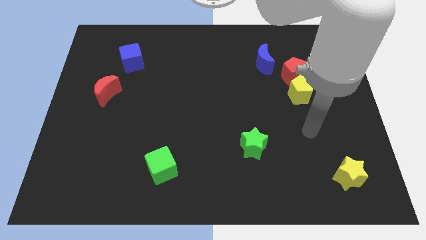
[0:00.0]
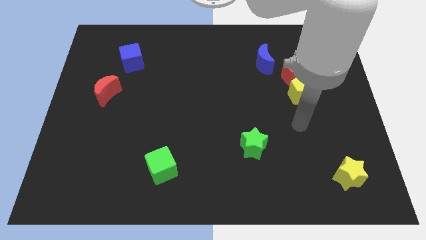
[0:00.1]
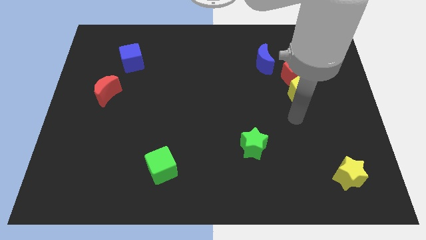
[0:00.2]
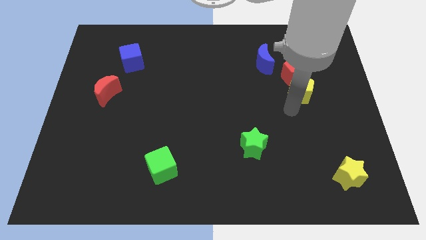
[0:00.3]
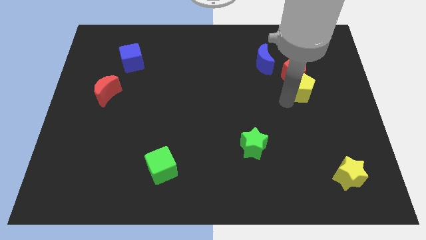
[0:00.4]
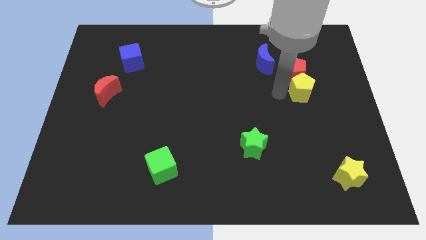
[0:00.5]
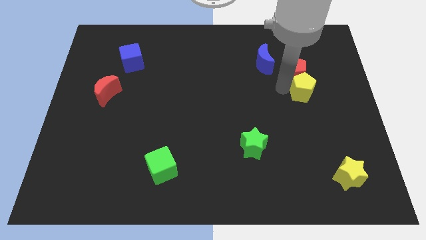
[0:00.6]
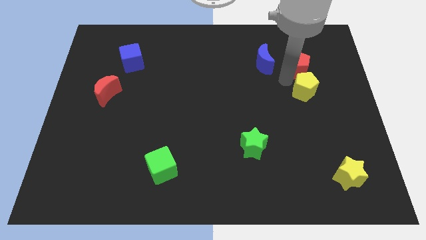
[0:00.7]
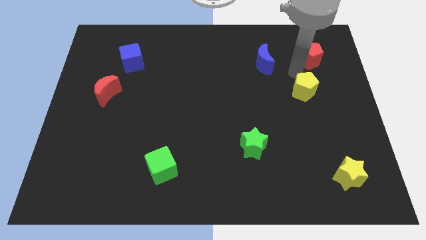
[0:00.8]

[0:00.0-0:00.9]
move the yellow pentagon away from the red pentagon

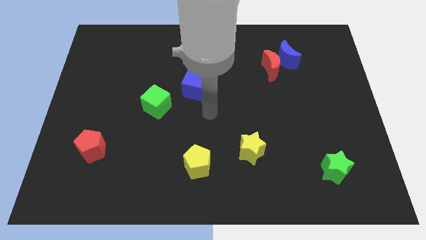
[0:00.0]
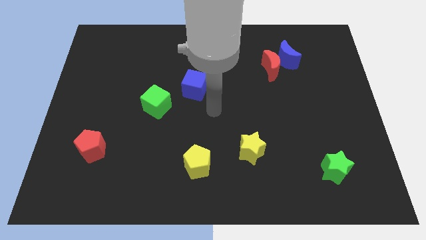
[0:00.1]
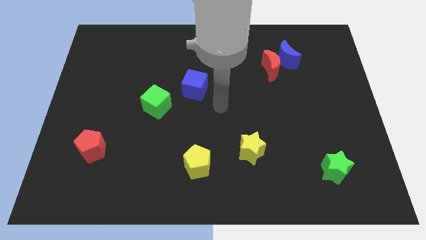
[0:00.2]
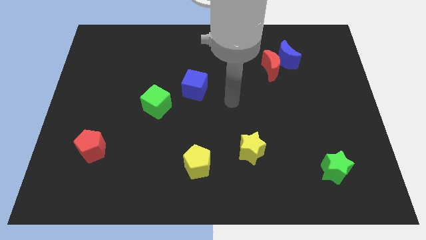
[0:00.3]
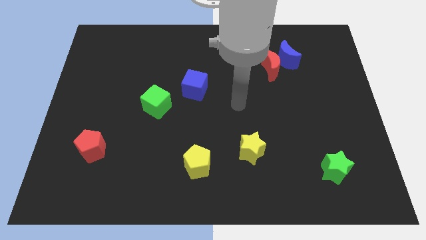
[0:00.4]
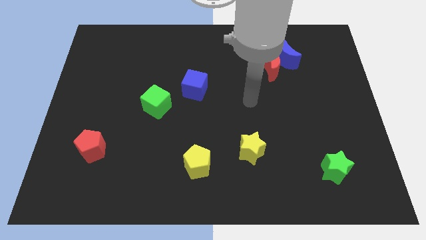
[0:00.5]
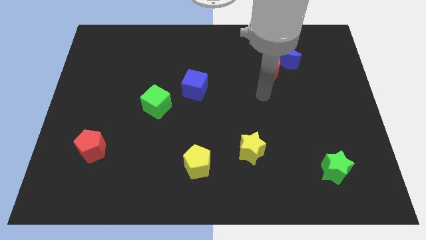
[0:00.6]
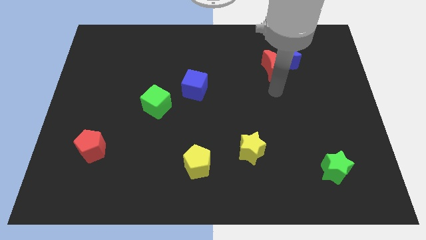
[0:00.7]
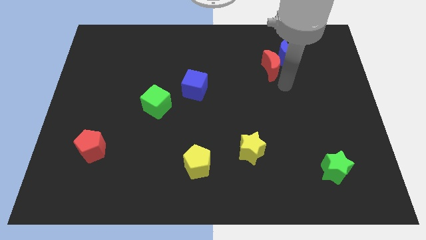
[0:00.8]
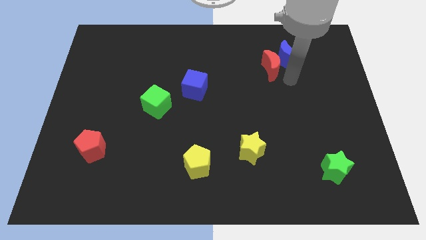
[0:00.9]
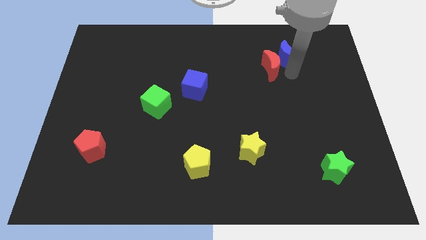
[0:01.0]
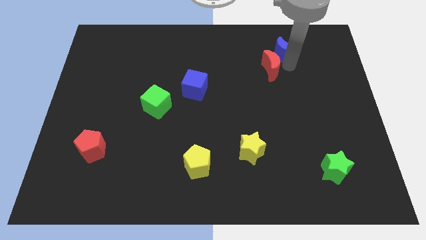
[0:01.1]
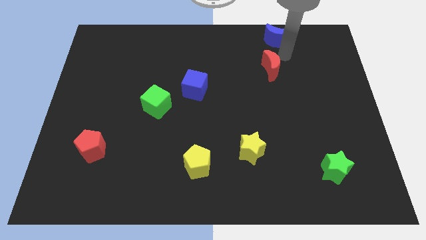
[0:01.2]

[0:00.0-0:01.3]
pull the red moon apart from the blue moon

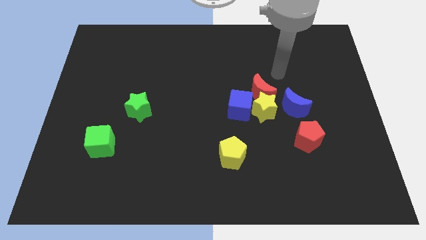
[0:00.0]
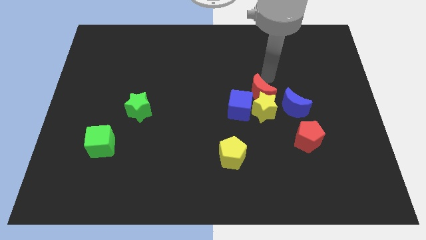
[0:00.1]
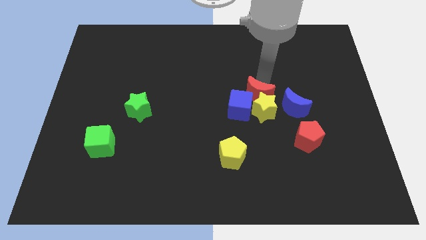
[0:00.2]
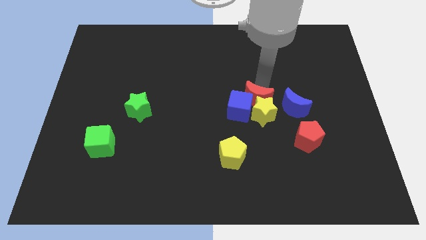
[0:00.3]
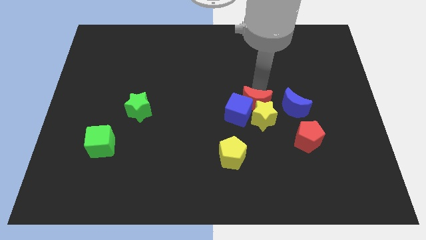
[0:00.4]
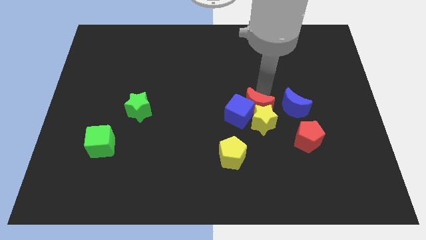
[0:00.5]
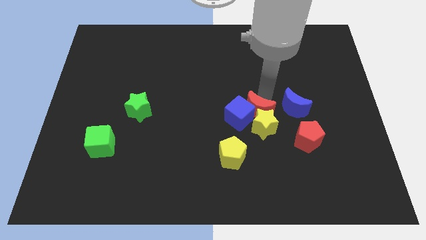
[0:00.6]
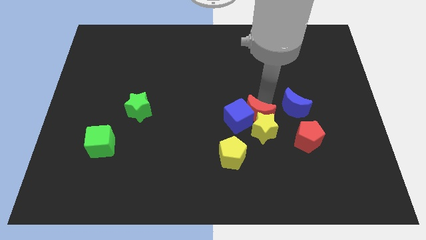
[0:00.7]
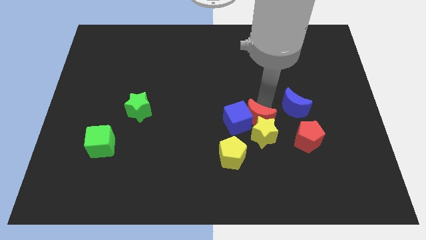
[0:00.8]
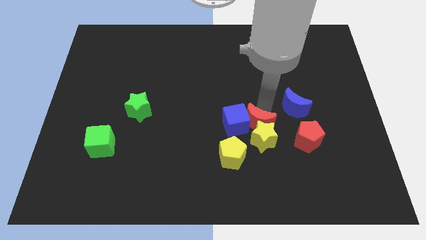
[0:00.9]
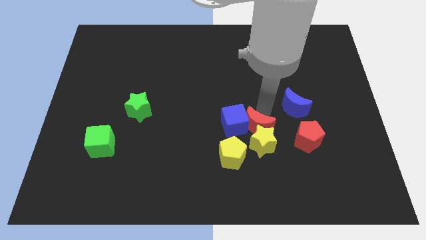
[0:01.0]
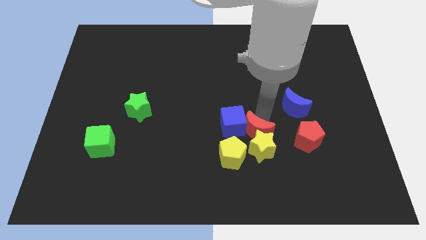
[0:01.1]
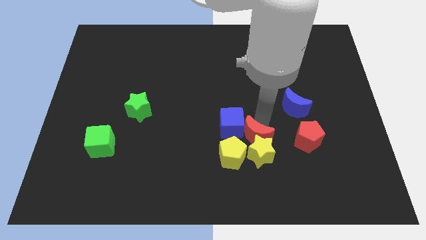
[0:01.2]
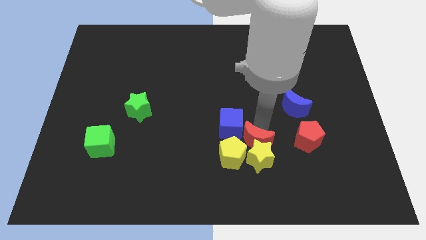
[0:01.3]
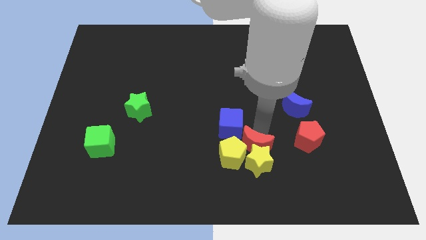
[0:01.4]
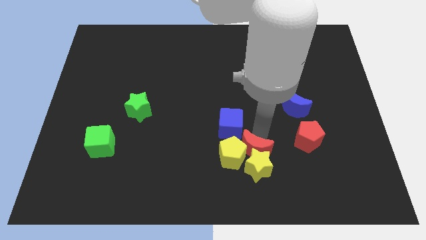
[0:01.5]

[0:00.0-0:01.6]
pull the yellow star apart from the group of blocks

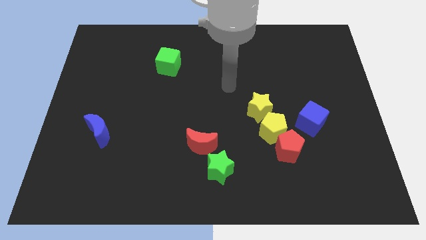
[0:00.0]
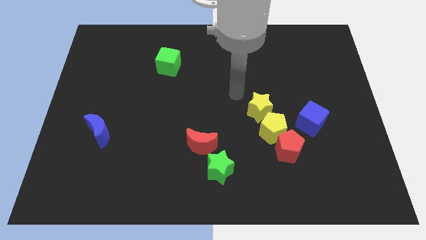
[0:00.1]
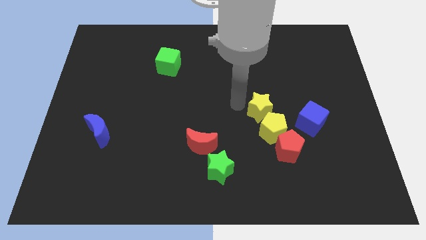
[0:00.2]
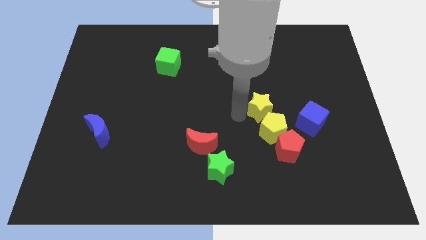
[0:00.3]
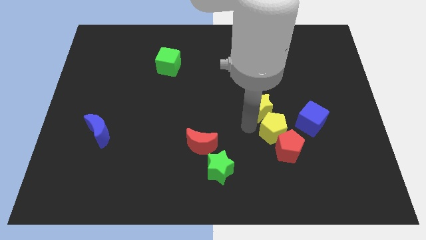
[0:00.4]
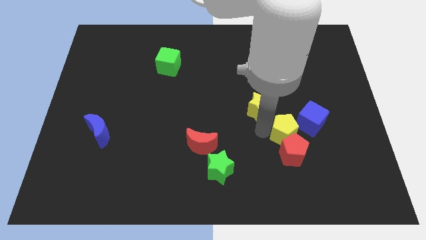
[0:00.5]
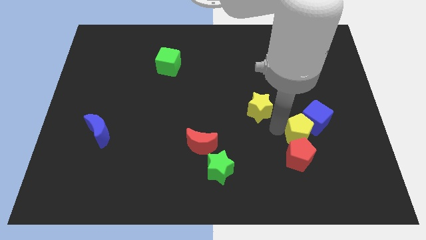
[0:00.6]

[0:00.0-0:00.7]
separate the yellow star from the yellow pentagon

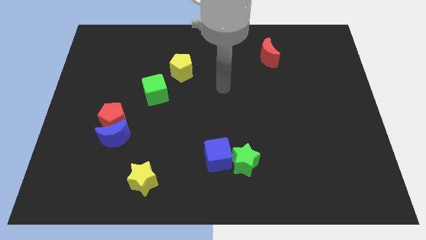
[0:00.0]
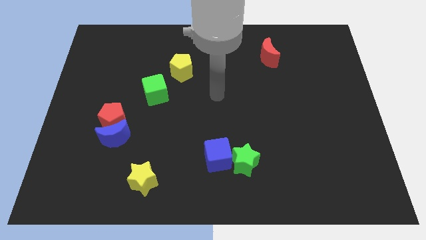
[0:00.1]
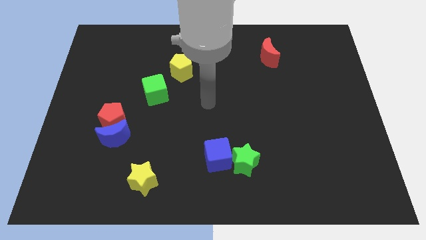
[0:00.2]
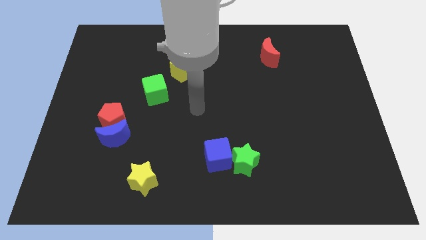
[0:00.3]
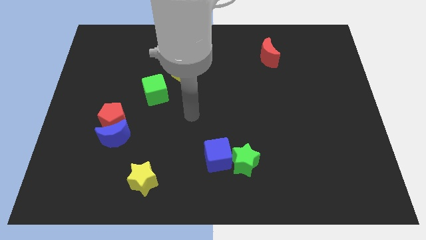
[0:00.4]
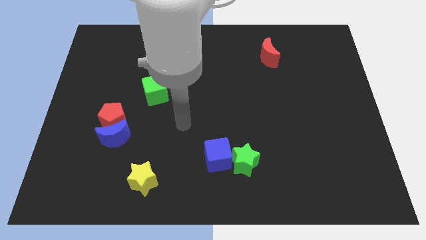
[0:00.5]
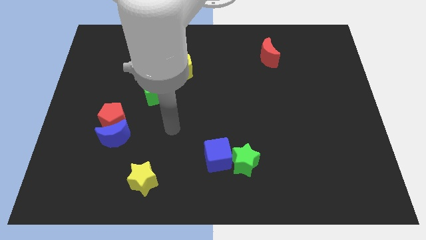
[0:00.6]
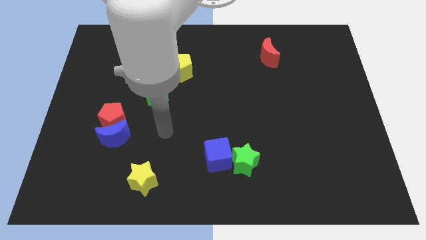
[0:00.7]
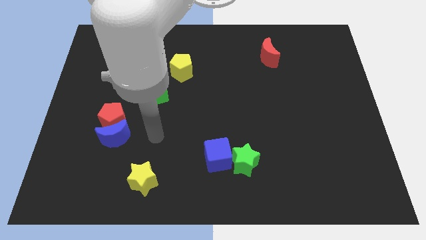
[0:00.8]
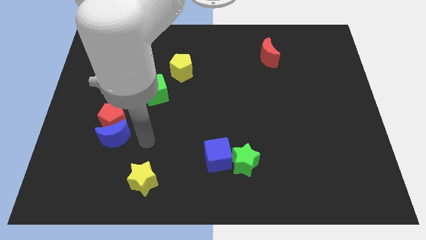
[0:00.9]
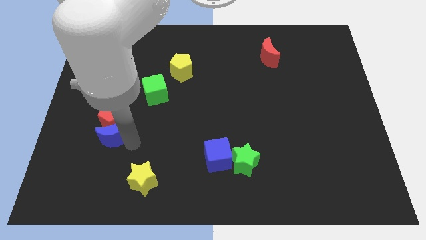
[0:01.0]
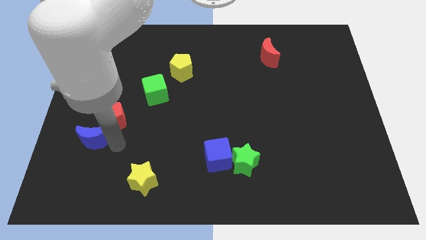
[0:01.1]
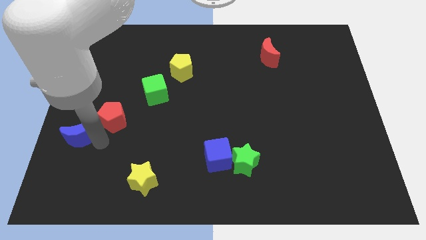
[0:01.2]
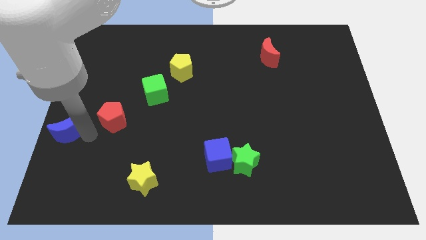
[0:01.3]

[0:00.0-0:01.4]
move the red pentagon away from the blue moon

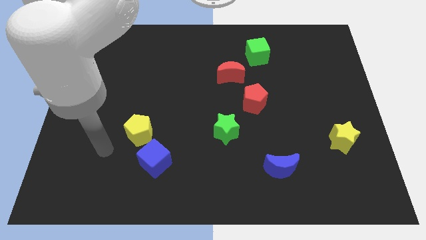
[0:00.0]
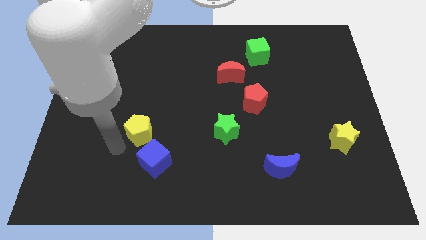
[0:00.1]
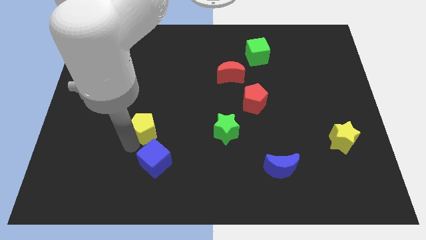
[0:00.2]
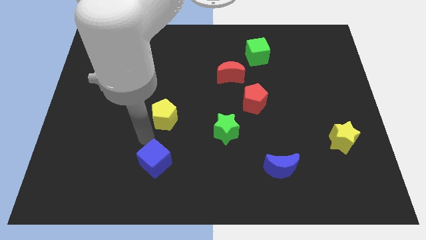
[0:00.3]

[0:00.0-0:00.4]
pull the blue cube apart from the yellow pentagon

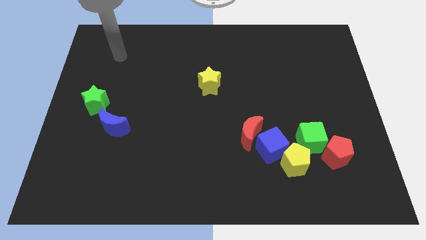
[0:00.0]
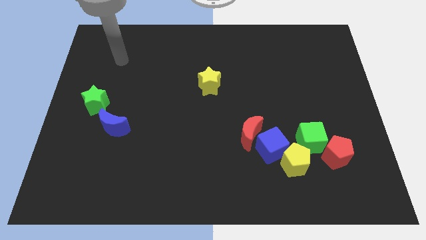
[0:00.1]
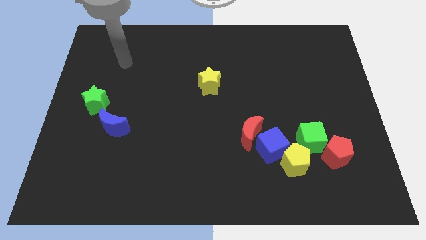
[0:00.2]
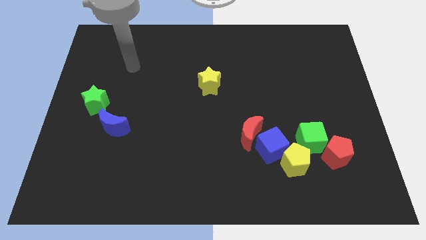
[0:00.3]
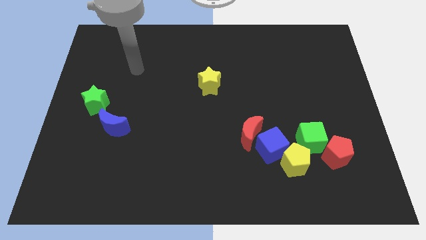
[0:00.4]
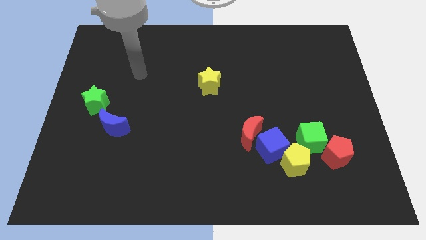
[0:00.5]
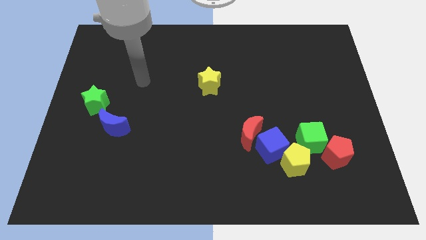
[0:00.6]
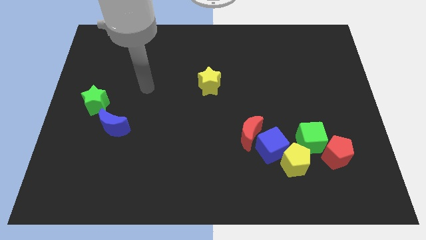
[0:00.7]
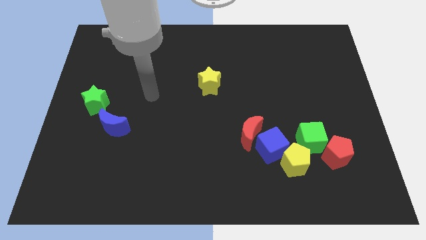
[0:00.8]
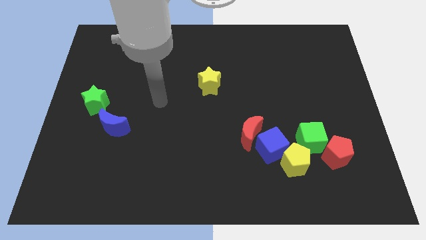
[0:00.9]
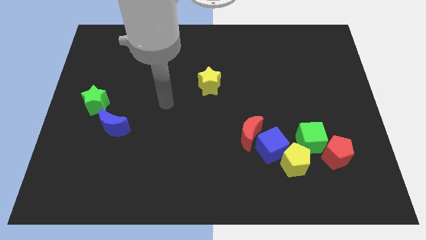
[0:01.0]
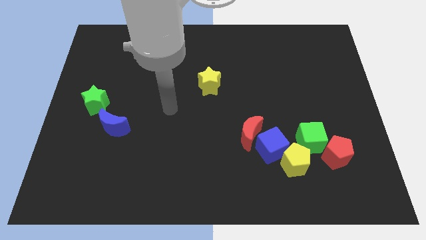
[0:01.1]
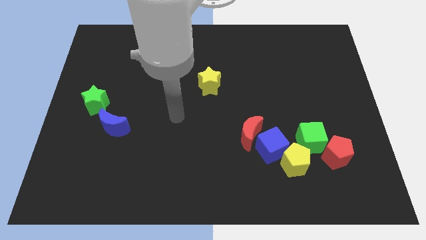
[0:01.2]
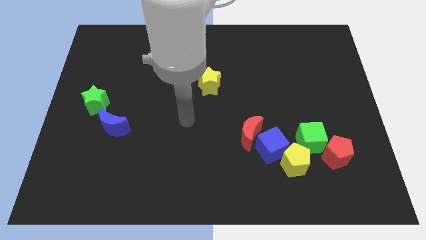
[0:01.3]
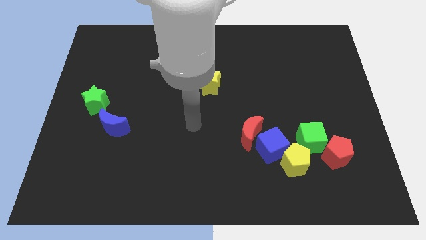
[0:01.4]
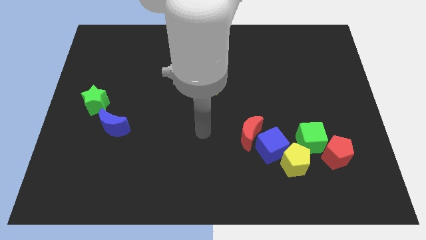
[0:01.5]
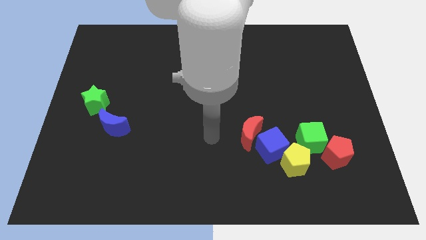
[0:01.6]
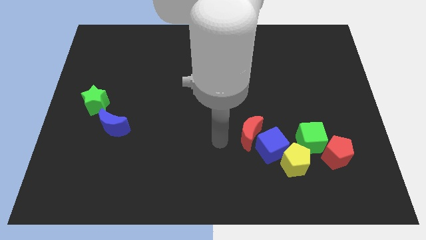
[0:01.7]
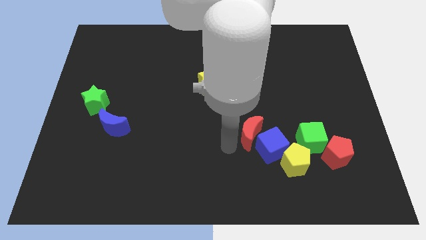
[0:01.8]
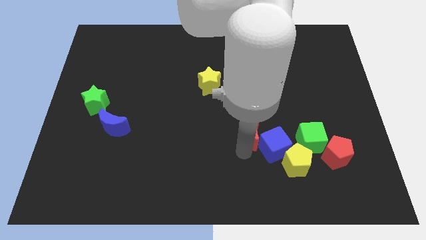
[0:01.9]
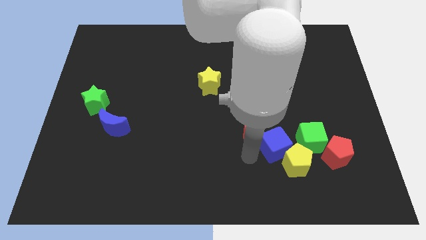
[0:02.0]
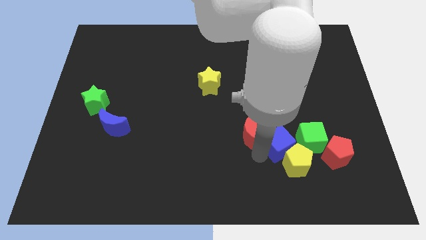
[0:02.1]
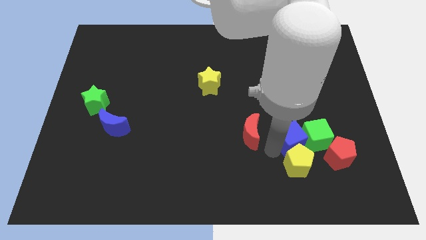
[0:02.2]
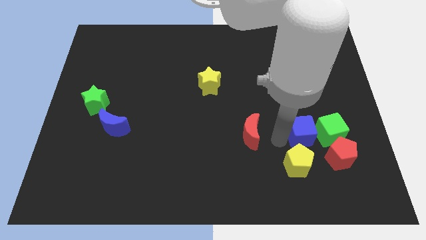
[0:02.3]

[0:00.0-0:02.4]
separate the red moon from the blue cube

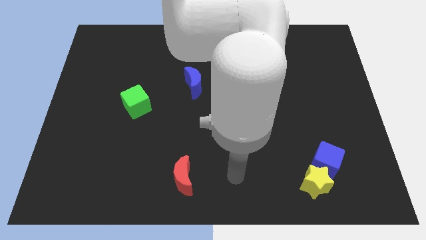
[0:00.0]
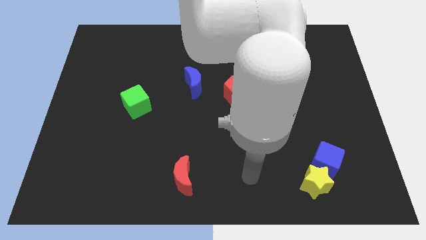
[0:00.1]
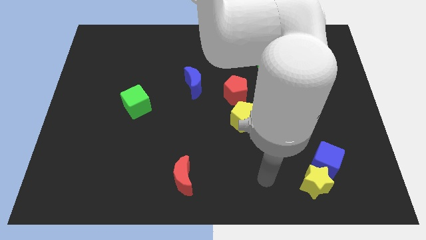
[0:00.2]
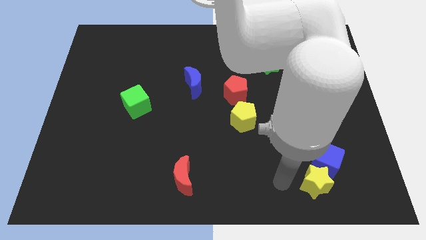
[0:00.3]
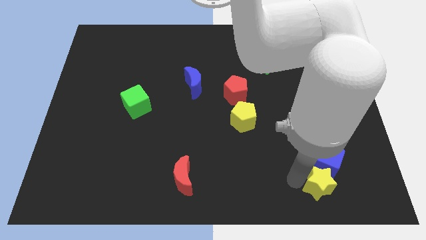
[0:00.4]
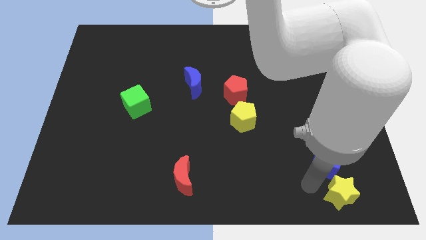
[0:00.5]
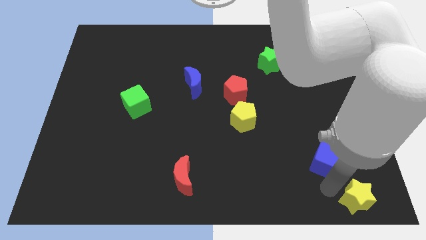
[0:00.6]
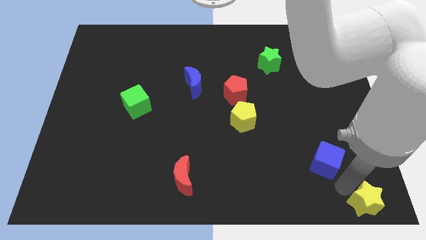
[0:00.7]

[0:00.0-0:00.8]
separate the blue cube from the yellow star

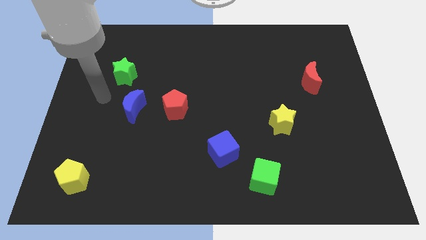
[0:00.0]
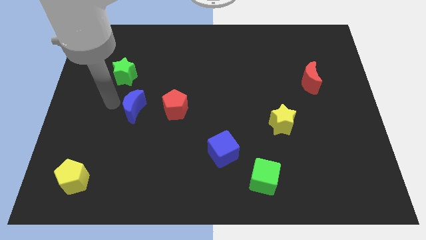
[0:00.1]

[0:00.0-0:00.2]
pull the red pentagon apart from the blue moon
